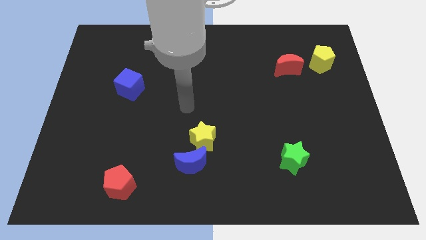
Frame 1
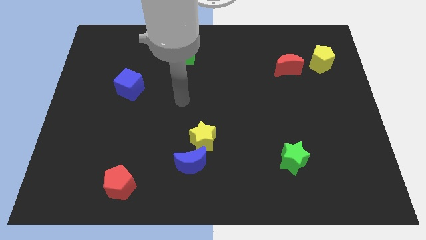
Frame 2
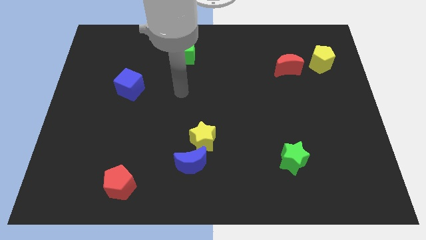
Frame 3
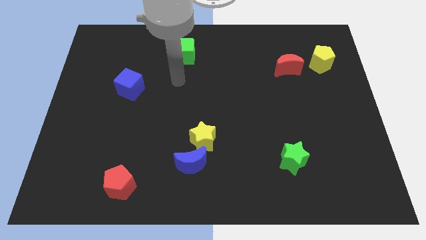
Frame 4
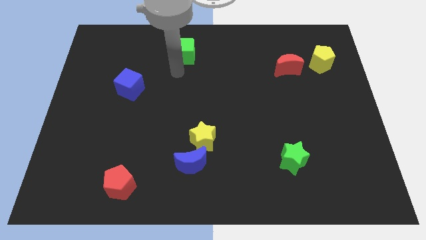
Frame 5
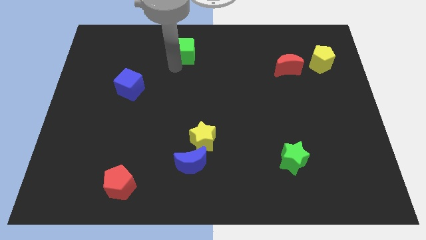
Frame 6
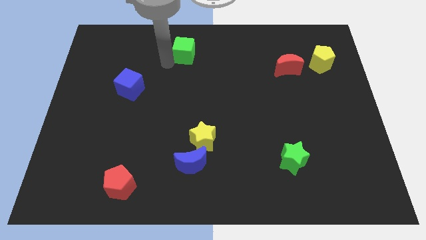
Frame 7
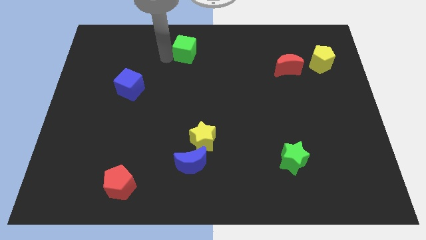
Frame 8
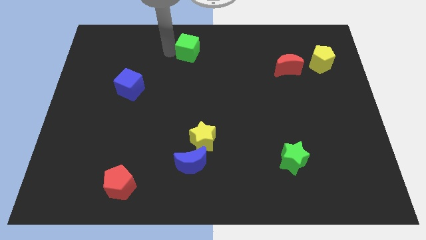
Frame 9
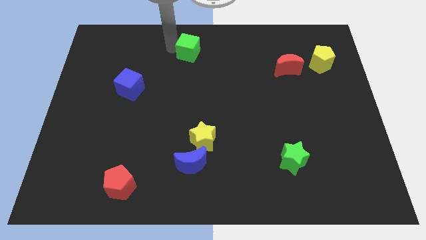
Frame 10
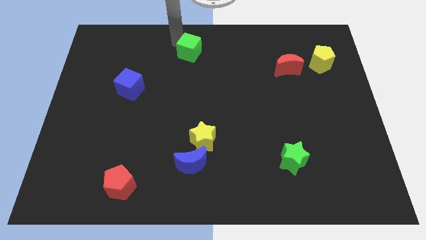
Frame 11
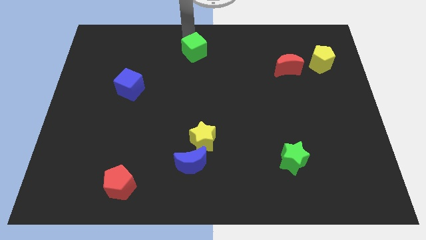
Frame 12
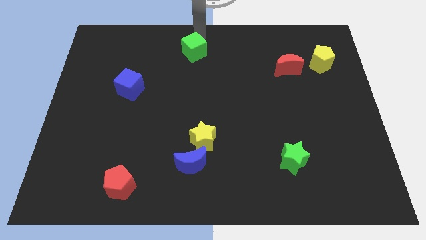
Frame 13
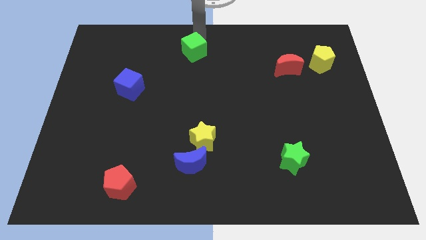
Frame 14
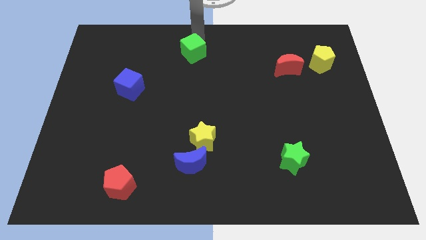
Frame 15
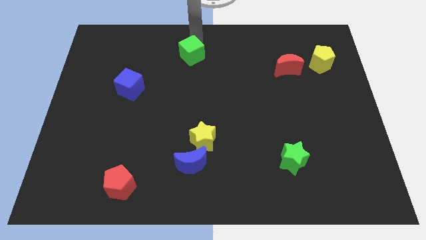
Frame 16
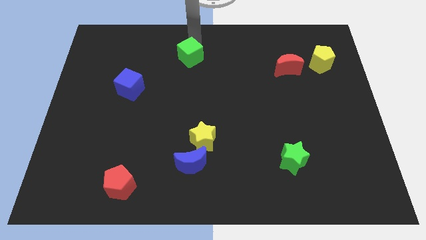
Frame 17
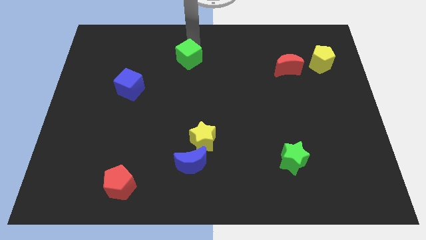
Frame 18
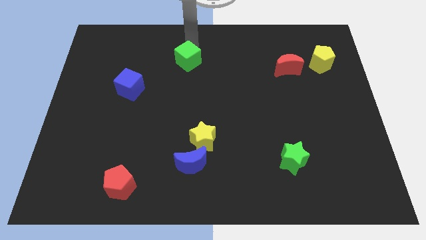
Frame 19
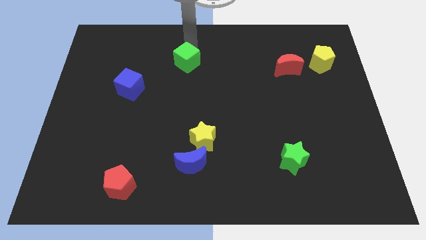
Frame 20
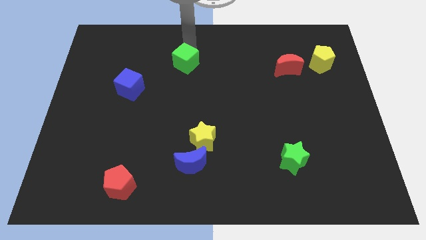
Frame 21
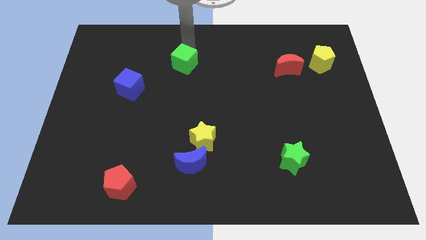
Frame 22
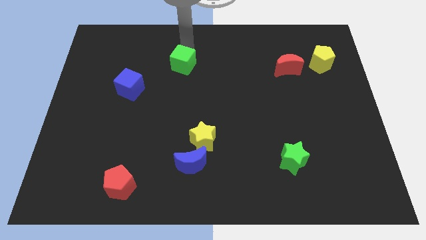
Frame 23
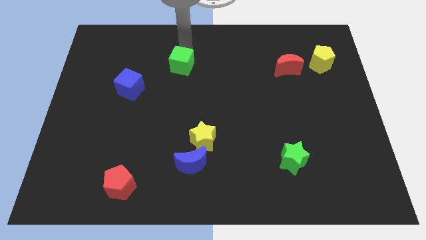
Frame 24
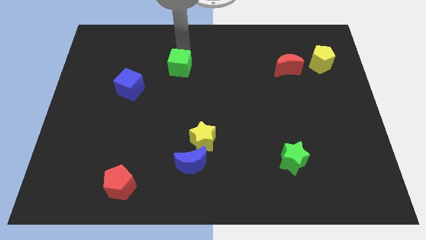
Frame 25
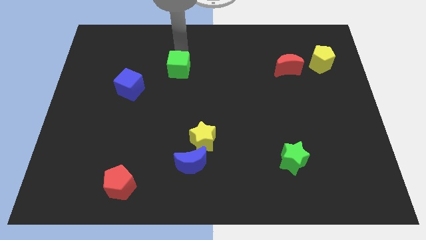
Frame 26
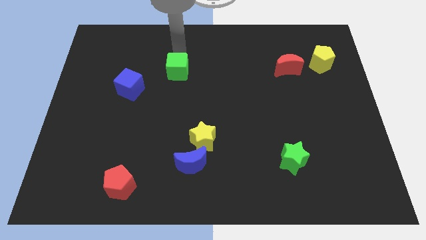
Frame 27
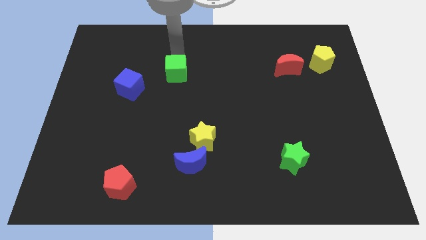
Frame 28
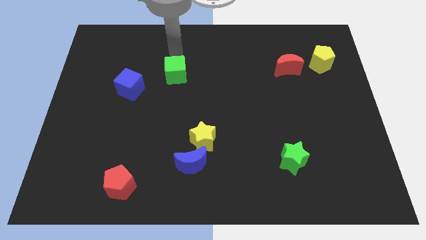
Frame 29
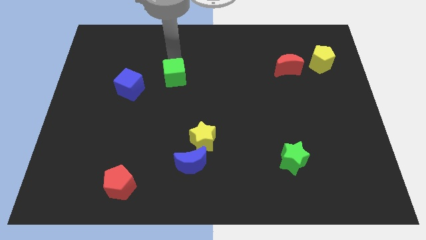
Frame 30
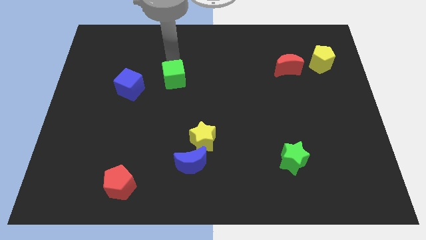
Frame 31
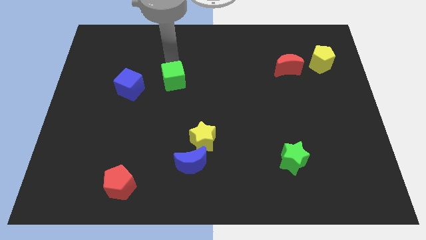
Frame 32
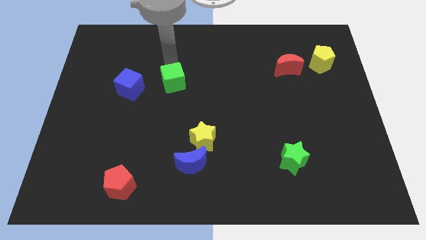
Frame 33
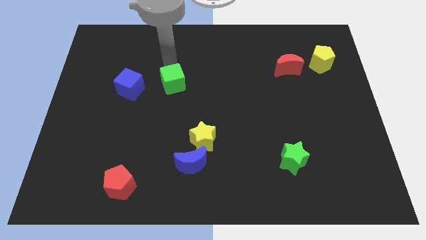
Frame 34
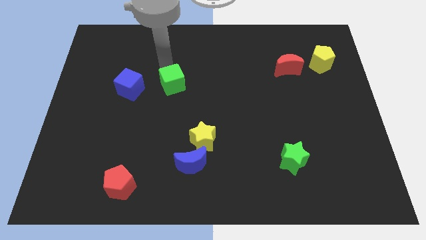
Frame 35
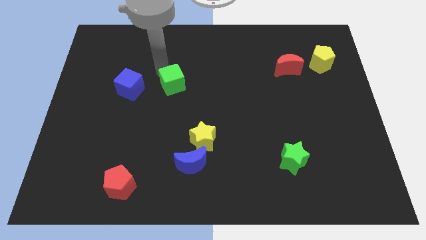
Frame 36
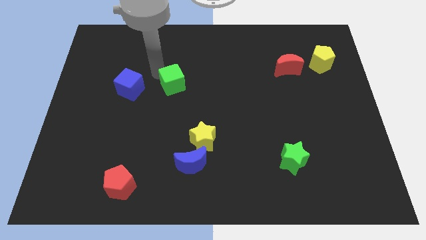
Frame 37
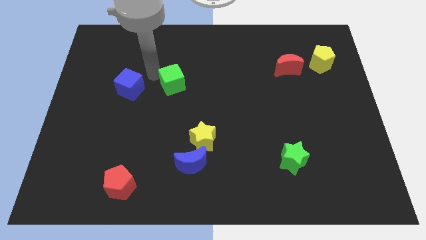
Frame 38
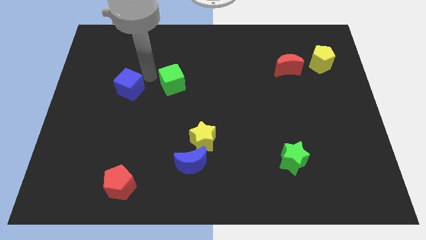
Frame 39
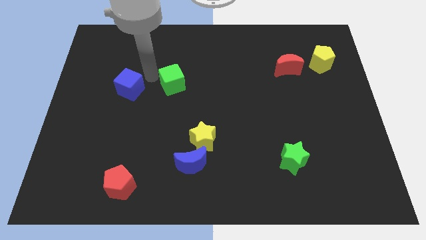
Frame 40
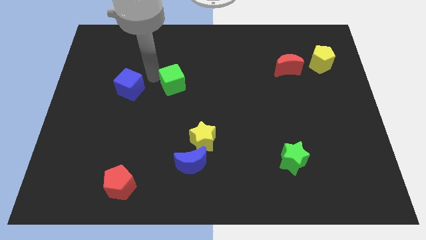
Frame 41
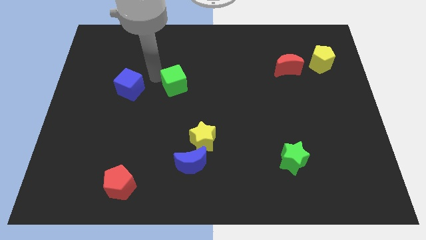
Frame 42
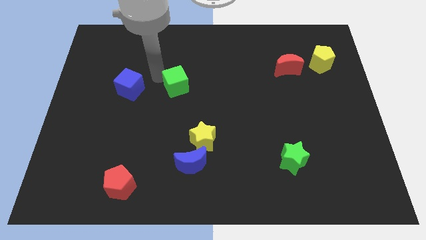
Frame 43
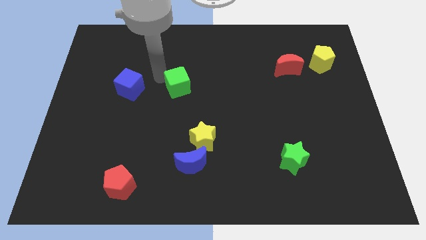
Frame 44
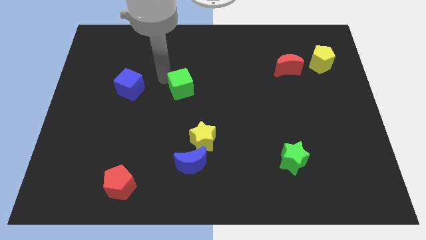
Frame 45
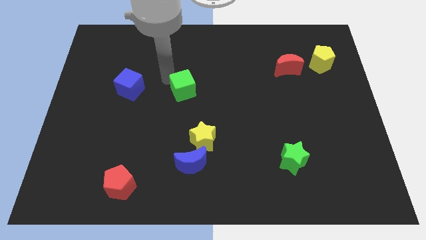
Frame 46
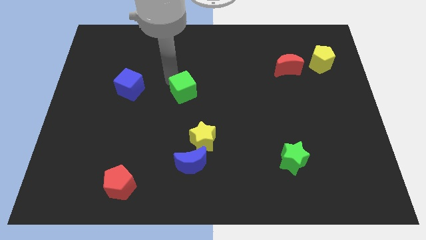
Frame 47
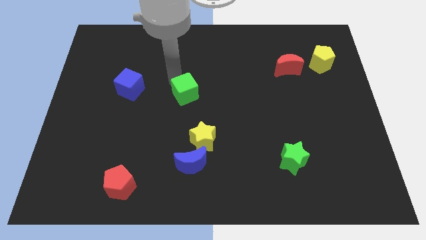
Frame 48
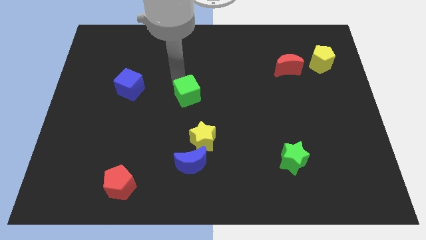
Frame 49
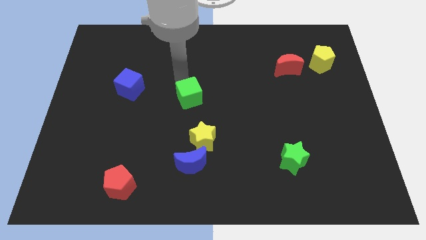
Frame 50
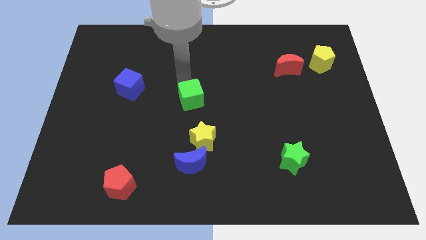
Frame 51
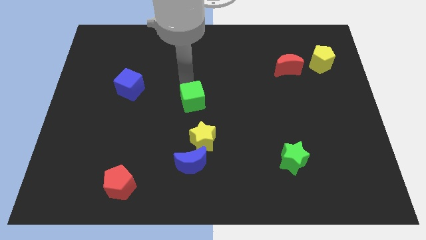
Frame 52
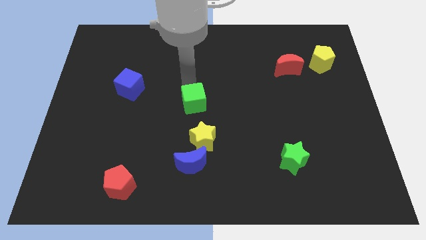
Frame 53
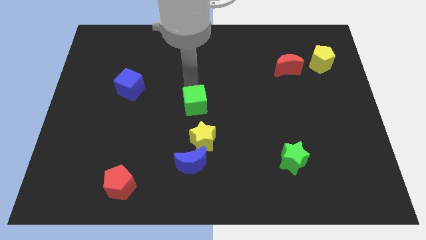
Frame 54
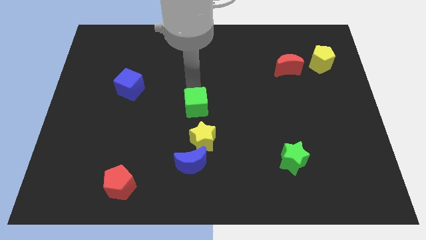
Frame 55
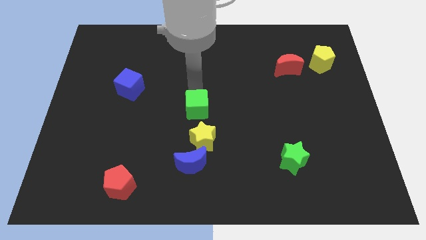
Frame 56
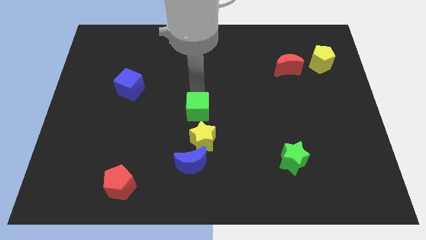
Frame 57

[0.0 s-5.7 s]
put the green cube to the top left side of the yellow star

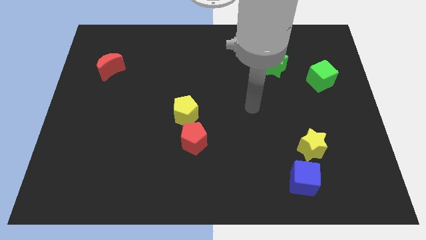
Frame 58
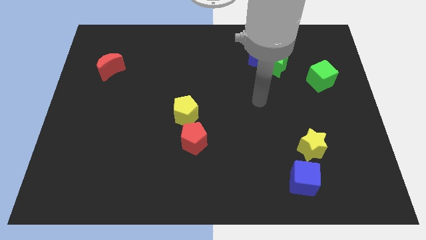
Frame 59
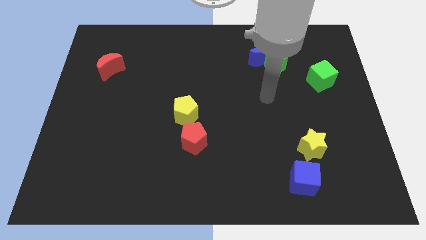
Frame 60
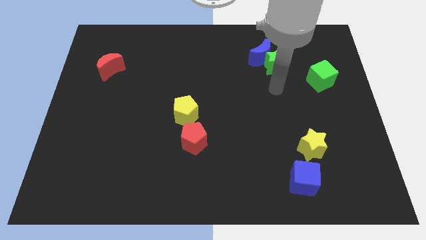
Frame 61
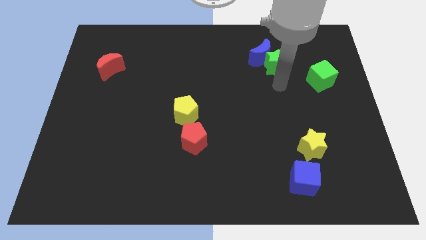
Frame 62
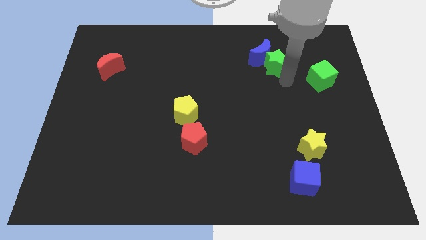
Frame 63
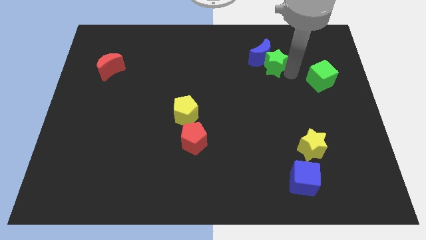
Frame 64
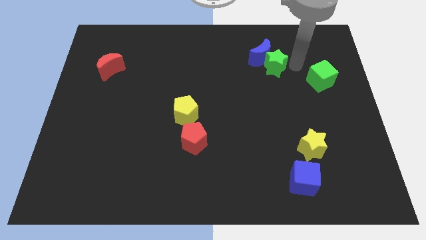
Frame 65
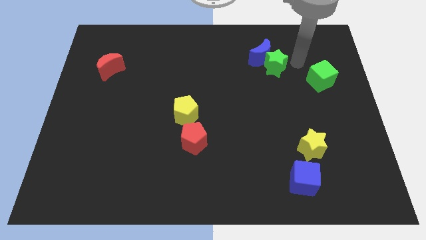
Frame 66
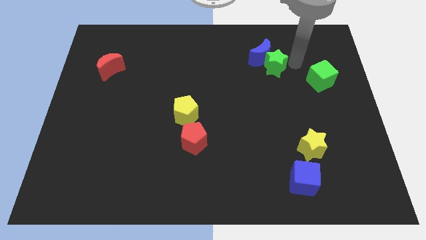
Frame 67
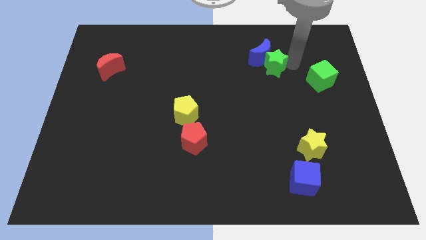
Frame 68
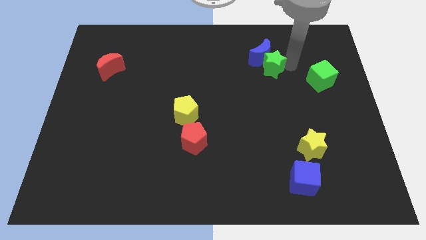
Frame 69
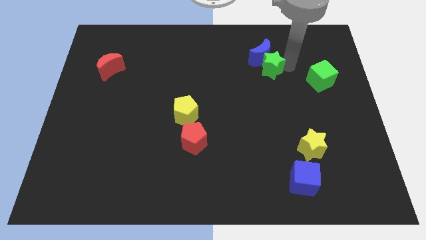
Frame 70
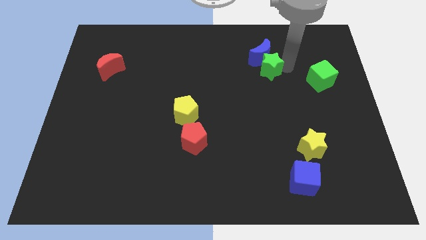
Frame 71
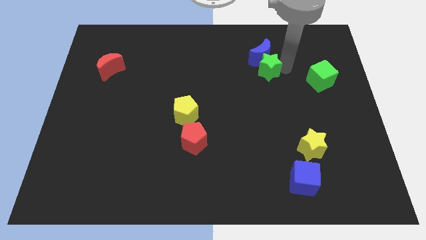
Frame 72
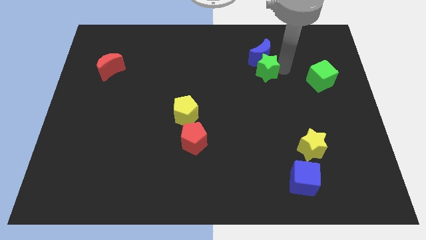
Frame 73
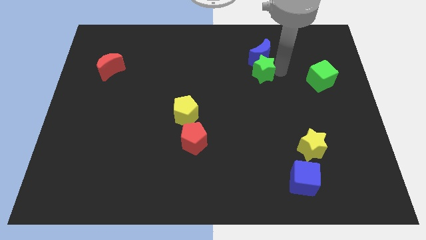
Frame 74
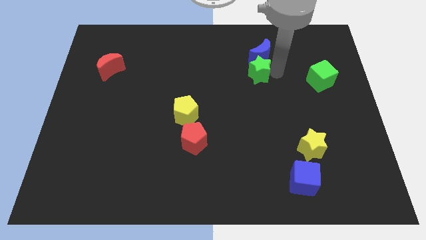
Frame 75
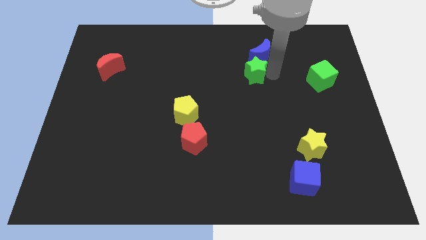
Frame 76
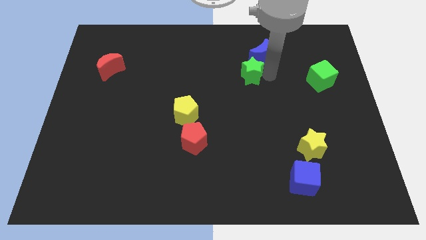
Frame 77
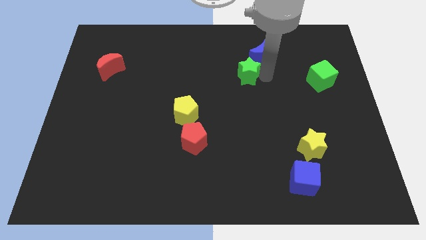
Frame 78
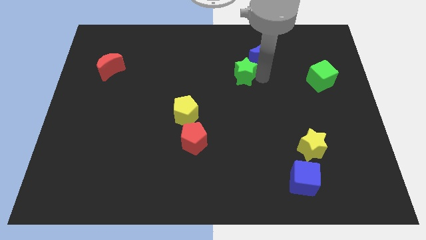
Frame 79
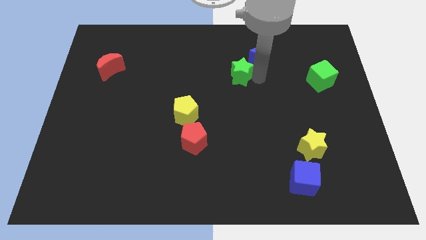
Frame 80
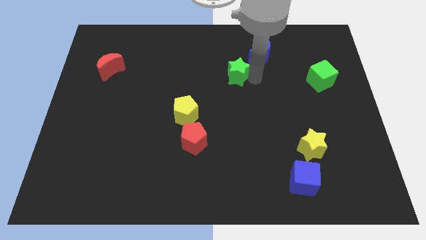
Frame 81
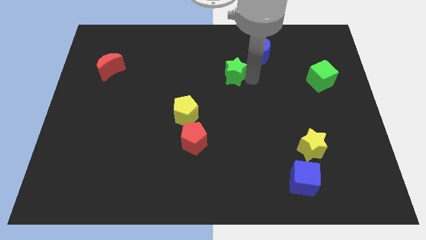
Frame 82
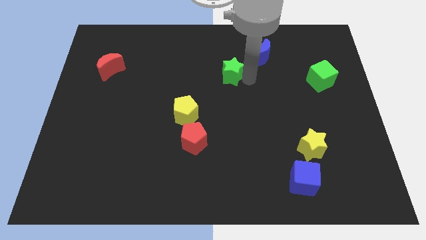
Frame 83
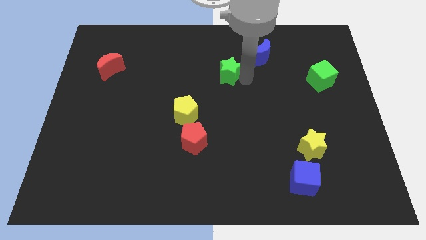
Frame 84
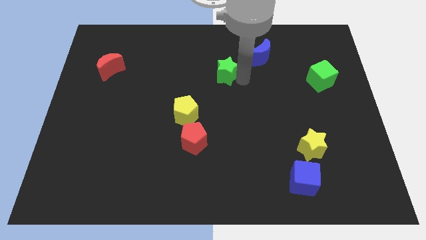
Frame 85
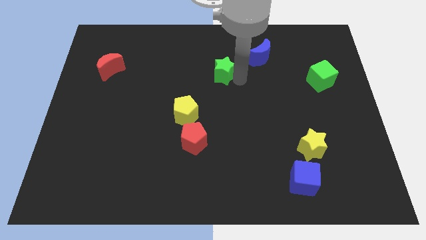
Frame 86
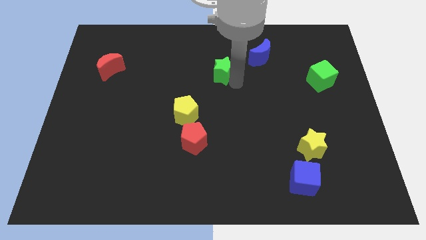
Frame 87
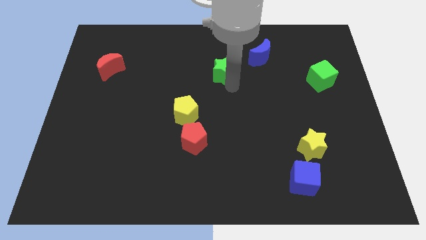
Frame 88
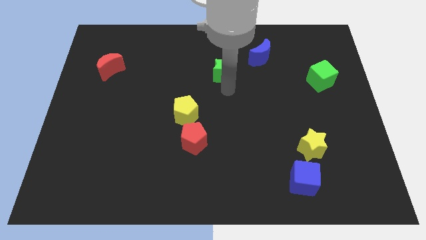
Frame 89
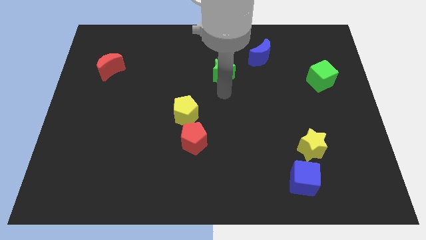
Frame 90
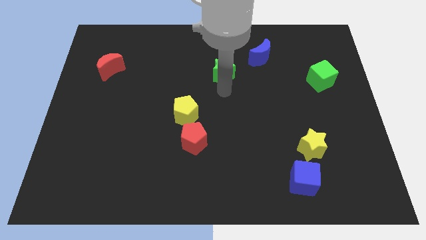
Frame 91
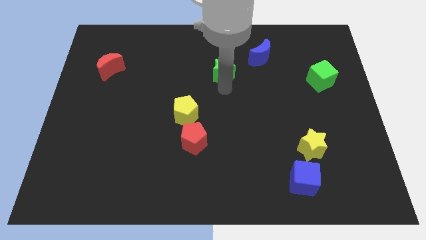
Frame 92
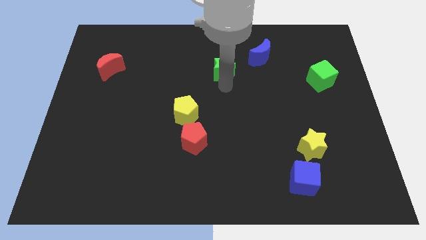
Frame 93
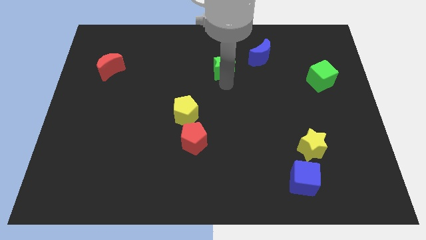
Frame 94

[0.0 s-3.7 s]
push the green star just left of the blue moon
